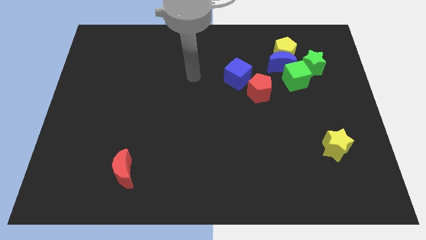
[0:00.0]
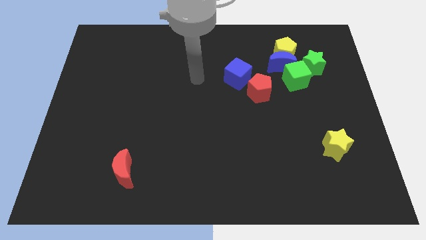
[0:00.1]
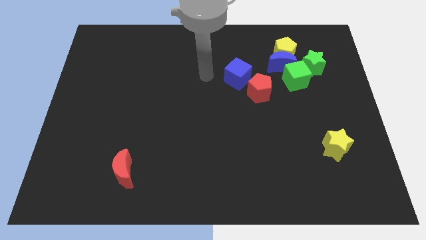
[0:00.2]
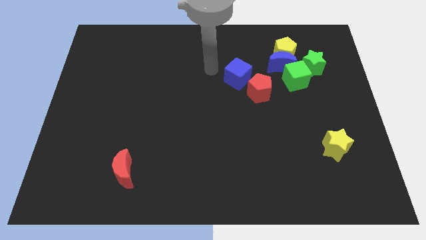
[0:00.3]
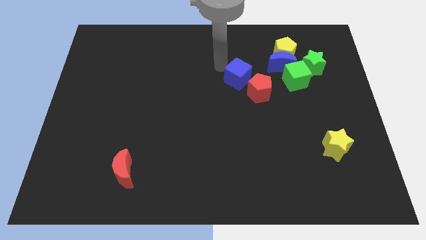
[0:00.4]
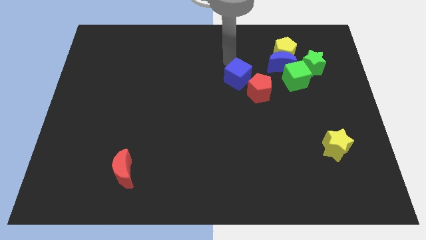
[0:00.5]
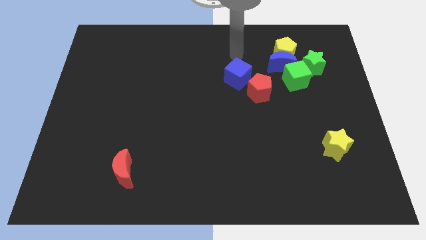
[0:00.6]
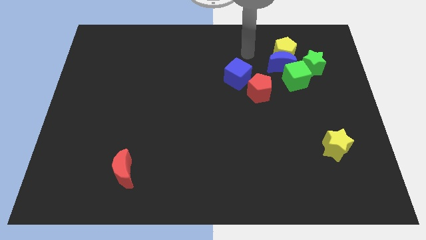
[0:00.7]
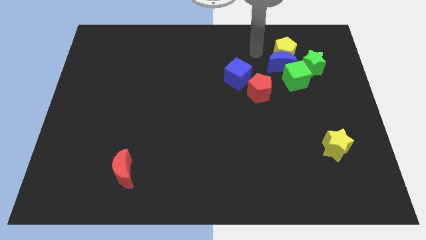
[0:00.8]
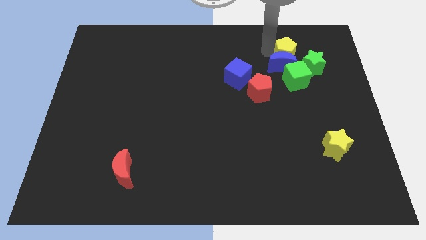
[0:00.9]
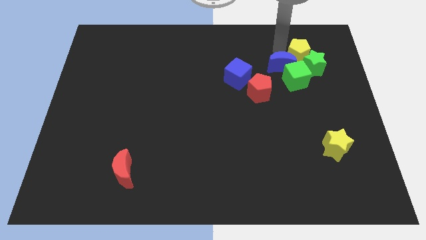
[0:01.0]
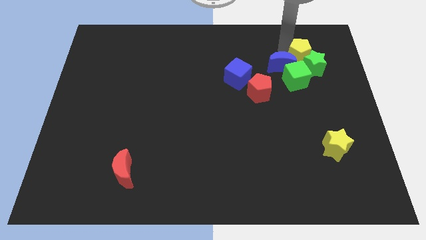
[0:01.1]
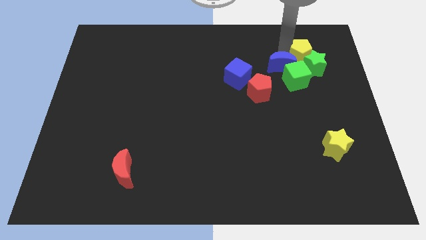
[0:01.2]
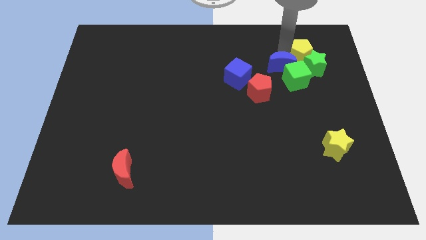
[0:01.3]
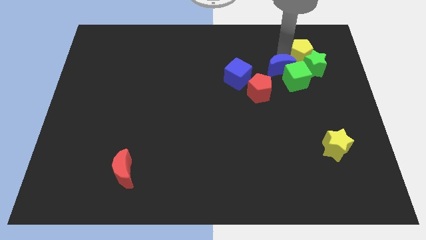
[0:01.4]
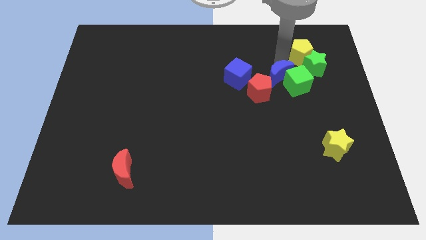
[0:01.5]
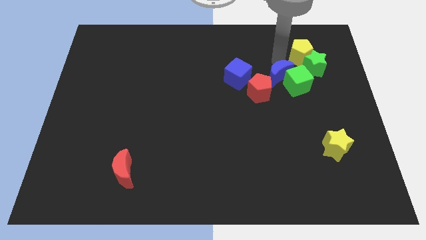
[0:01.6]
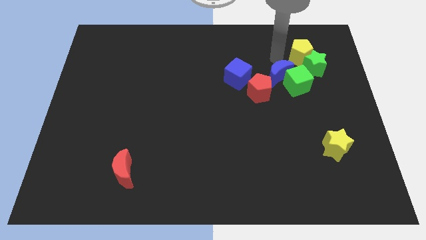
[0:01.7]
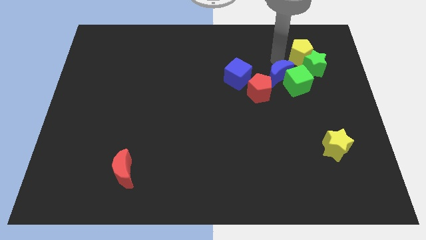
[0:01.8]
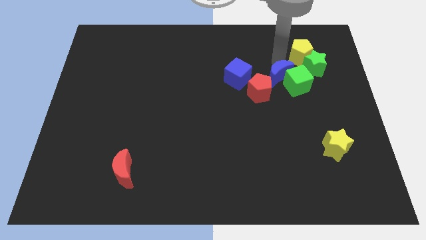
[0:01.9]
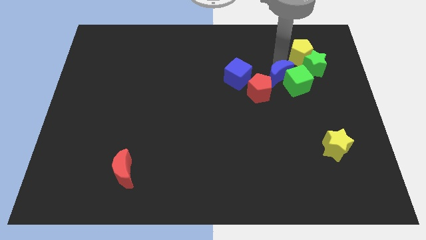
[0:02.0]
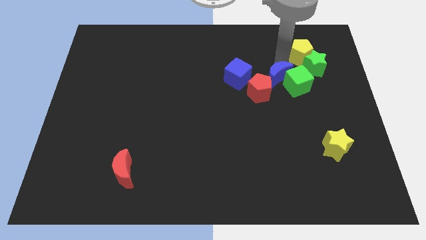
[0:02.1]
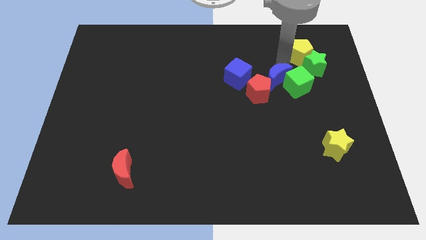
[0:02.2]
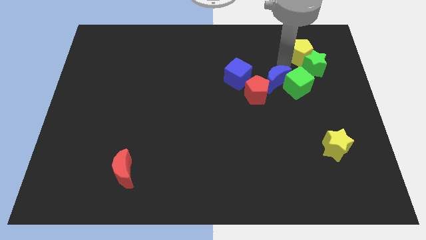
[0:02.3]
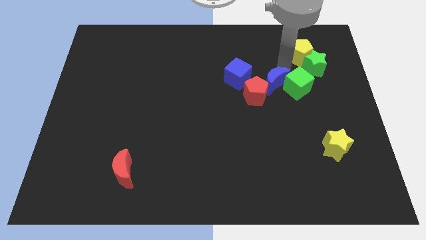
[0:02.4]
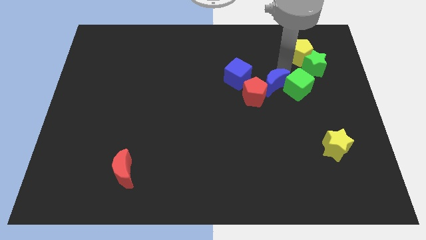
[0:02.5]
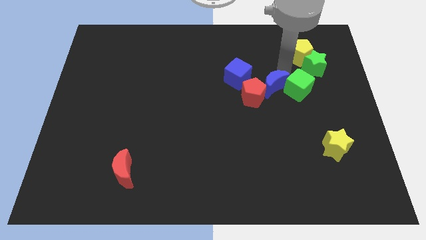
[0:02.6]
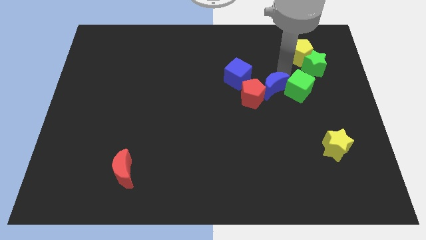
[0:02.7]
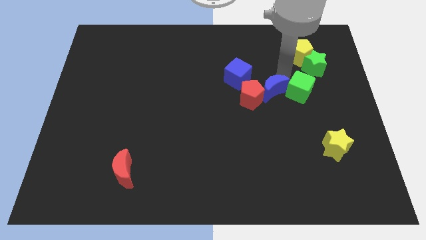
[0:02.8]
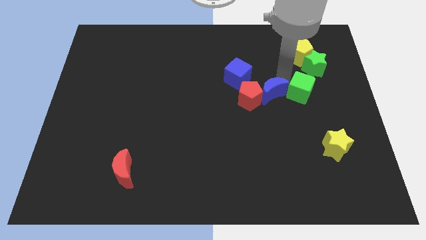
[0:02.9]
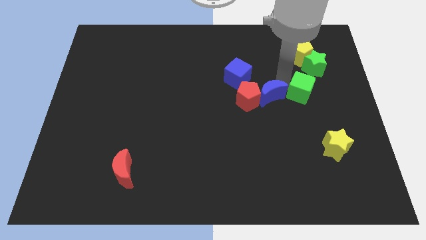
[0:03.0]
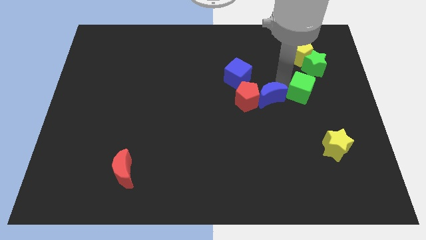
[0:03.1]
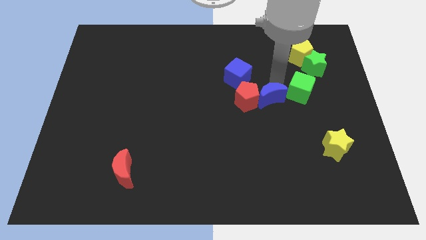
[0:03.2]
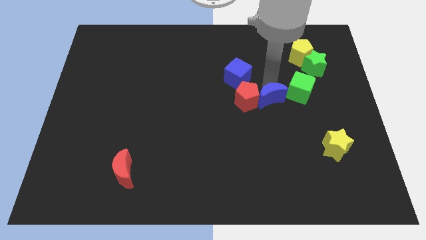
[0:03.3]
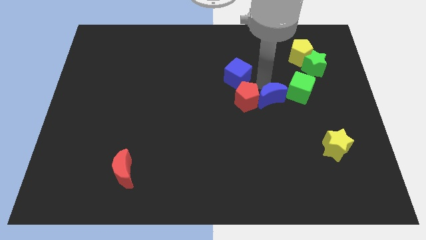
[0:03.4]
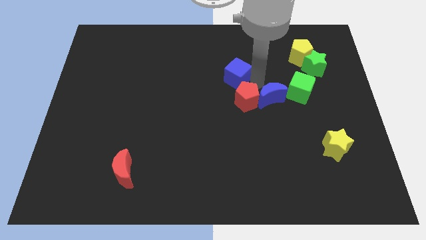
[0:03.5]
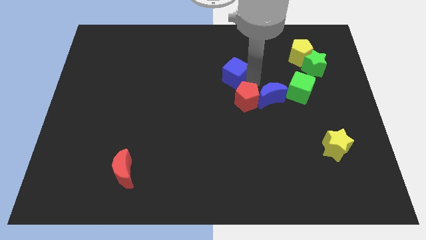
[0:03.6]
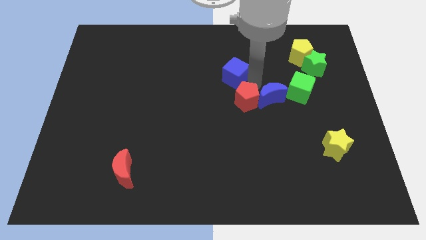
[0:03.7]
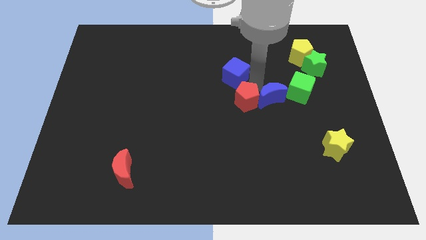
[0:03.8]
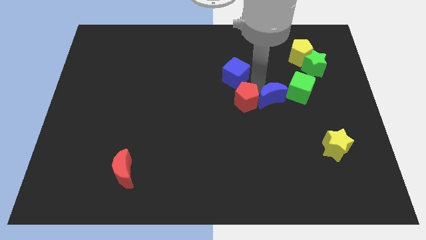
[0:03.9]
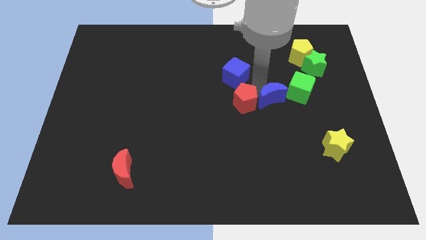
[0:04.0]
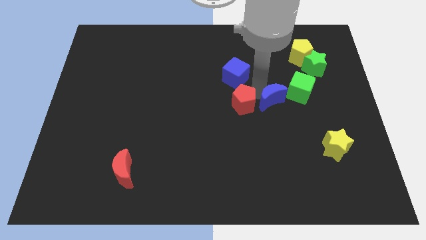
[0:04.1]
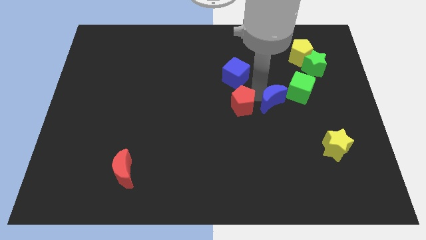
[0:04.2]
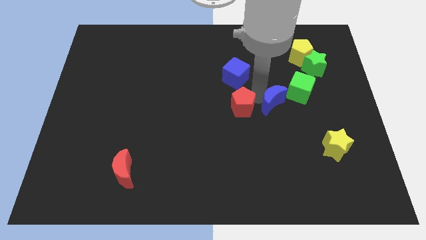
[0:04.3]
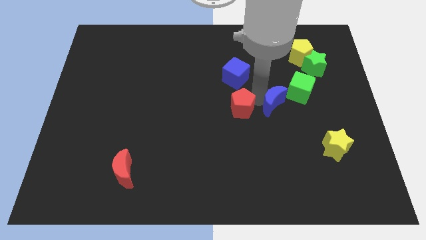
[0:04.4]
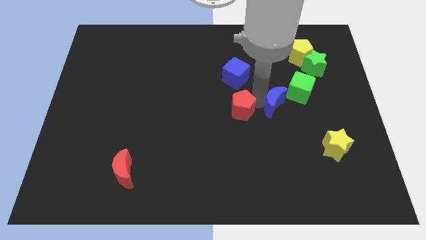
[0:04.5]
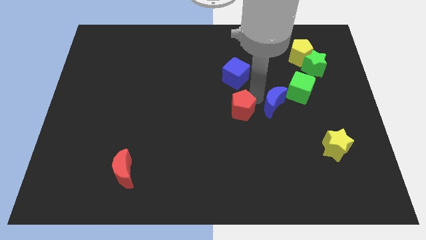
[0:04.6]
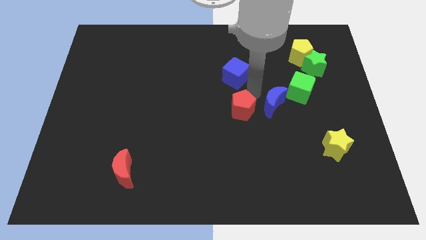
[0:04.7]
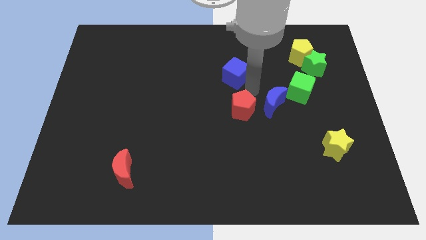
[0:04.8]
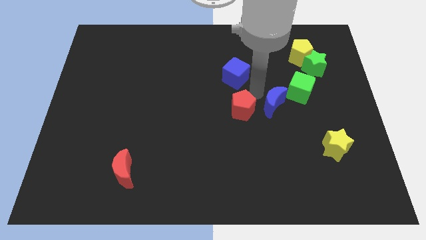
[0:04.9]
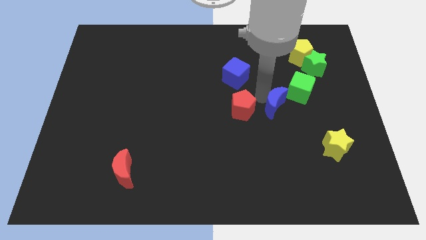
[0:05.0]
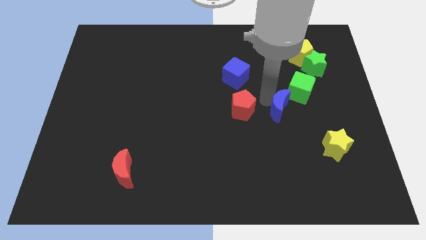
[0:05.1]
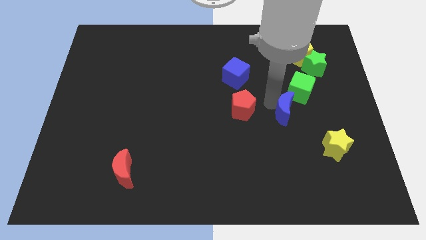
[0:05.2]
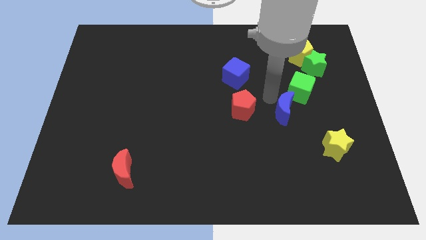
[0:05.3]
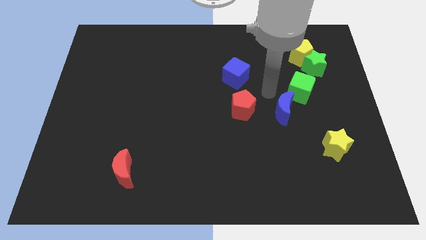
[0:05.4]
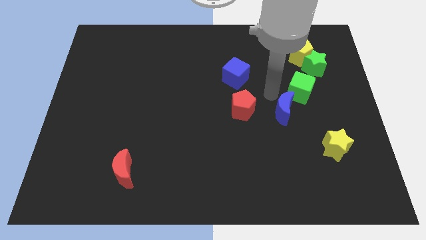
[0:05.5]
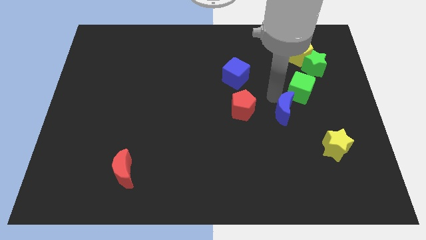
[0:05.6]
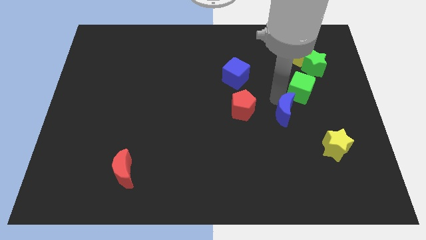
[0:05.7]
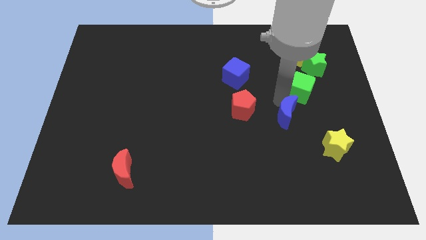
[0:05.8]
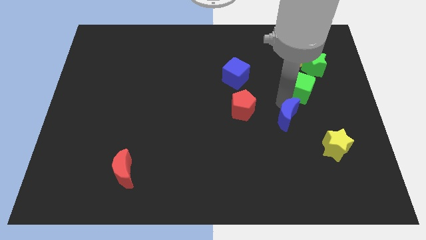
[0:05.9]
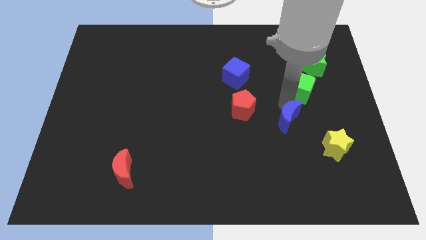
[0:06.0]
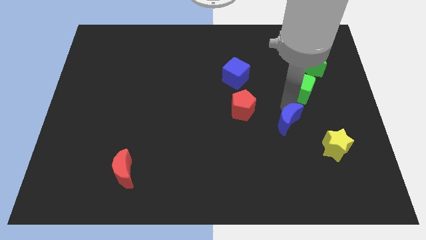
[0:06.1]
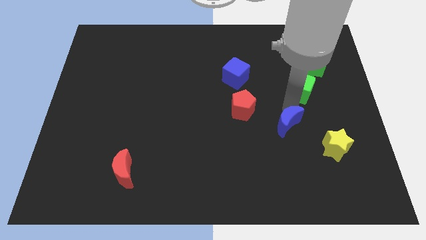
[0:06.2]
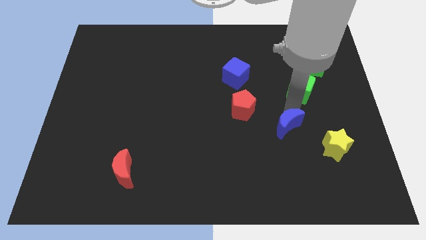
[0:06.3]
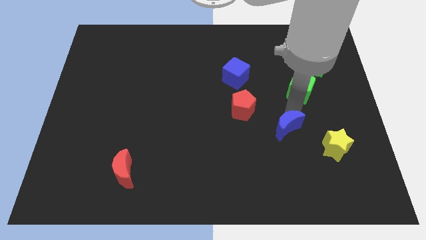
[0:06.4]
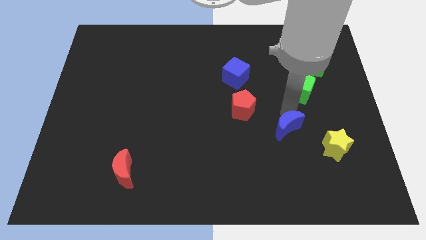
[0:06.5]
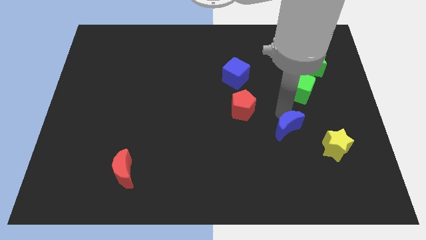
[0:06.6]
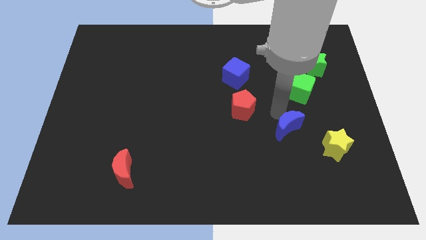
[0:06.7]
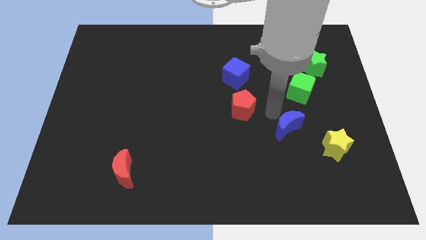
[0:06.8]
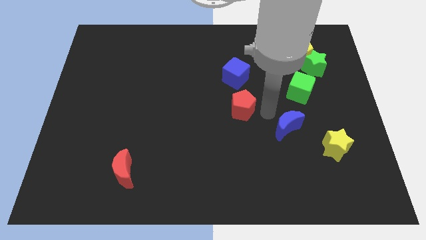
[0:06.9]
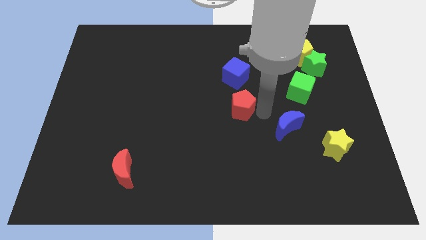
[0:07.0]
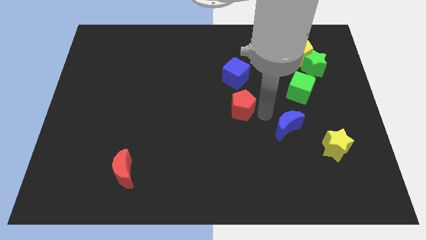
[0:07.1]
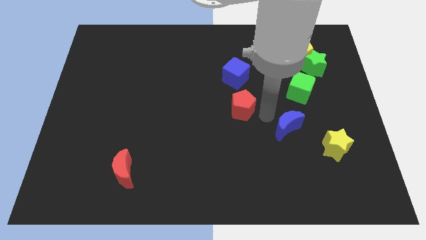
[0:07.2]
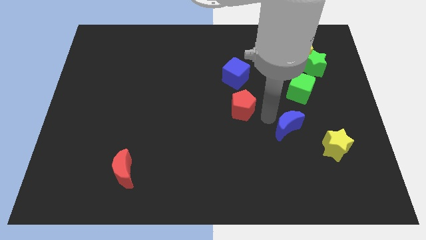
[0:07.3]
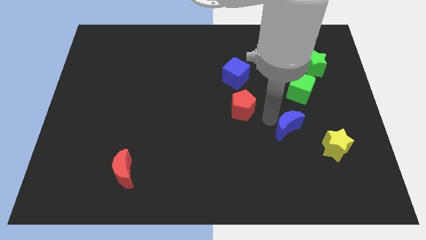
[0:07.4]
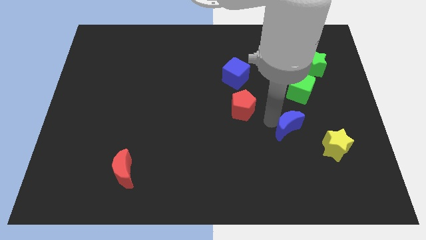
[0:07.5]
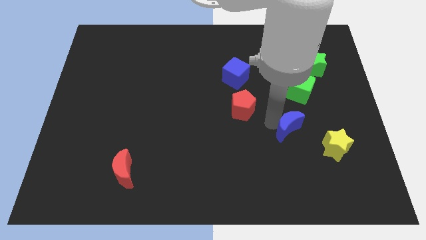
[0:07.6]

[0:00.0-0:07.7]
move the blue moon downwards

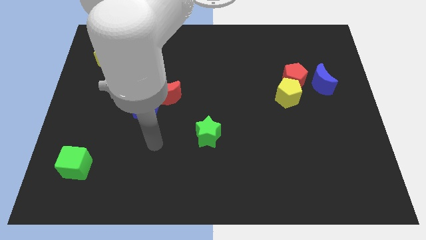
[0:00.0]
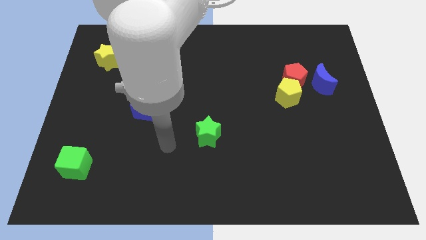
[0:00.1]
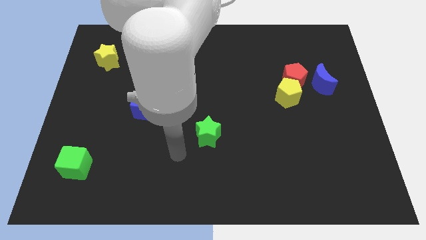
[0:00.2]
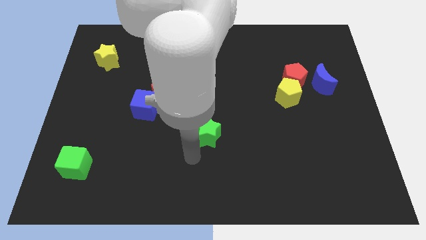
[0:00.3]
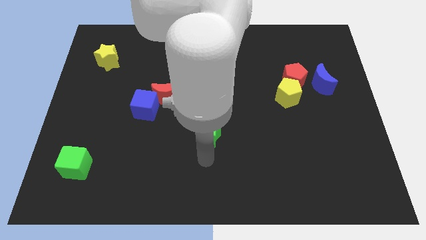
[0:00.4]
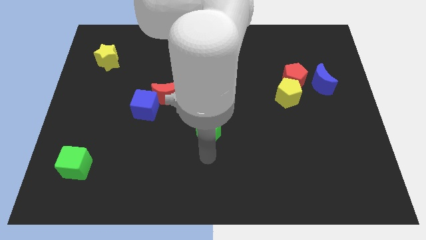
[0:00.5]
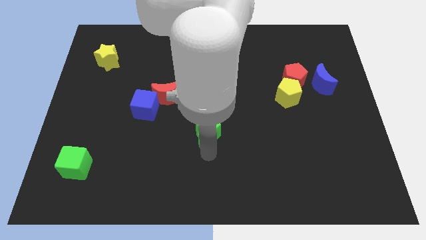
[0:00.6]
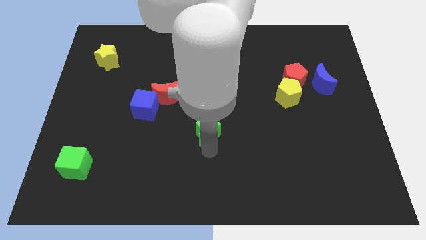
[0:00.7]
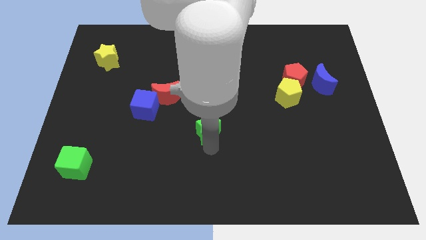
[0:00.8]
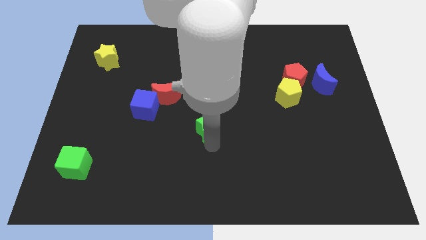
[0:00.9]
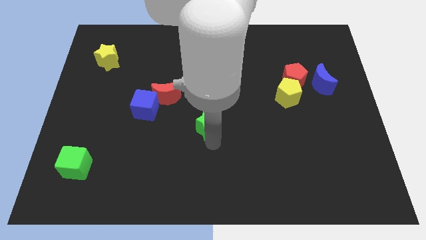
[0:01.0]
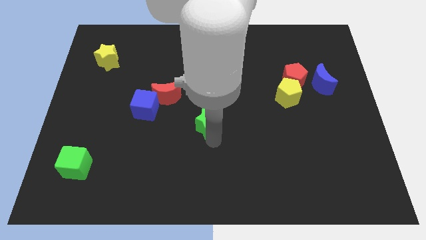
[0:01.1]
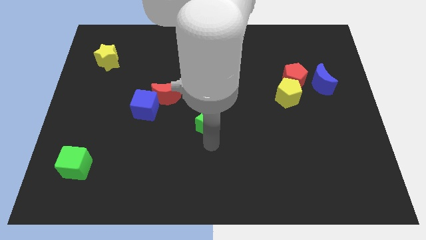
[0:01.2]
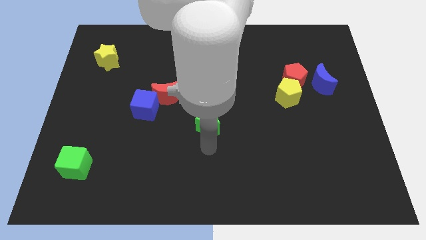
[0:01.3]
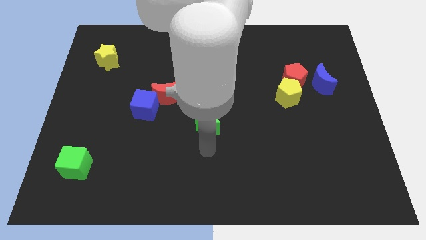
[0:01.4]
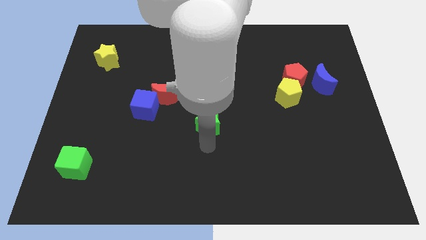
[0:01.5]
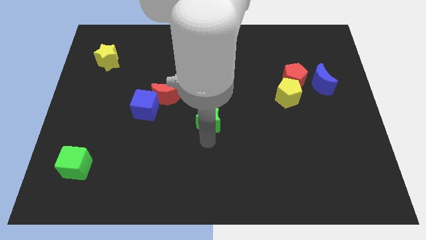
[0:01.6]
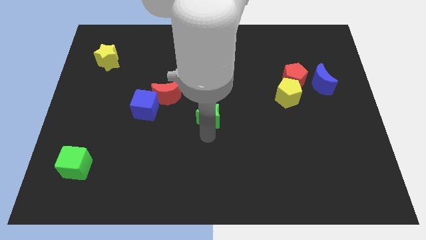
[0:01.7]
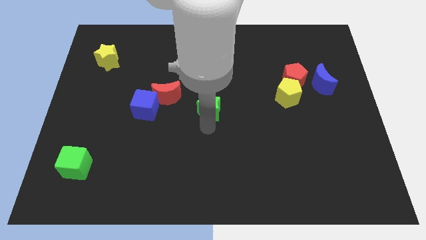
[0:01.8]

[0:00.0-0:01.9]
push the green star slightly upwards
